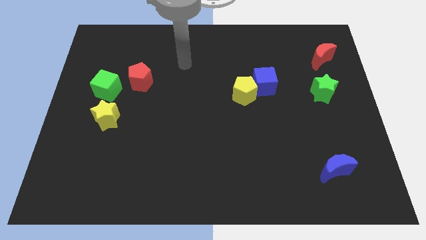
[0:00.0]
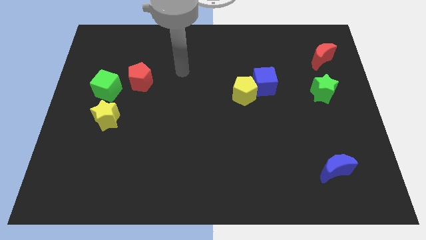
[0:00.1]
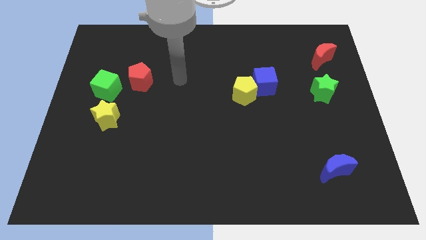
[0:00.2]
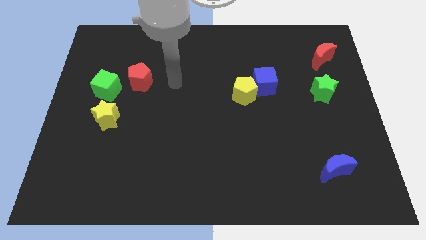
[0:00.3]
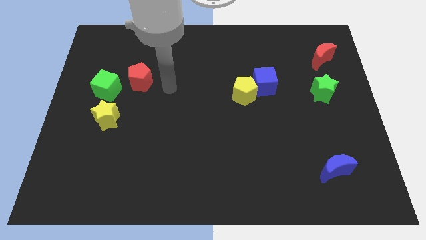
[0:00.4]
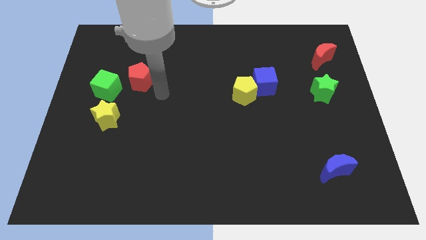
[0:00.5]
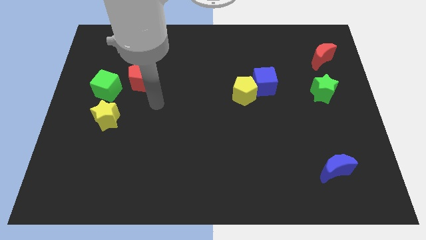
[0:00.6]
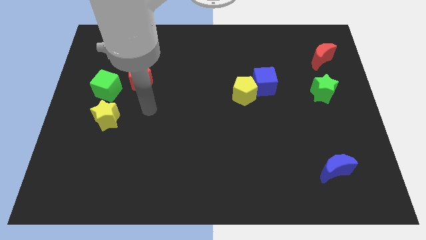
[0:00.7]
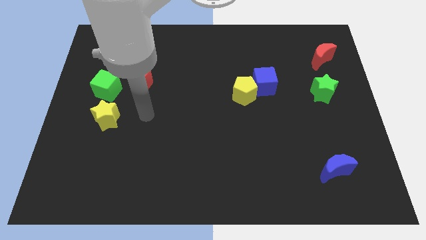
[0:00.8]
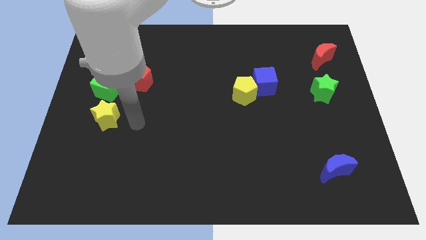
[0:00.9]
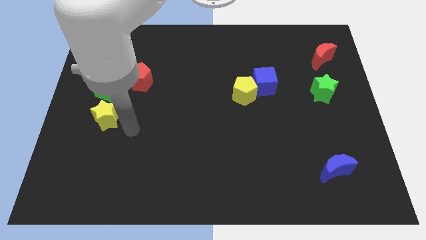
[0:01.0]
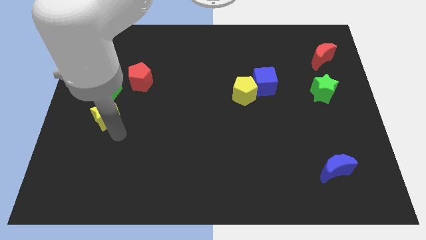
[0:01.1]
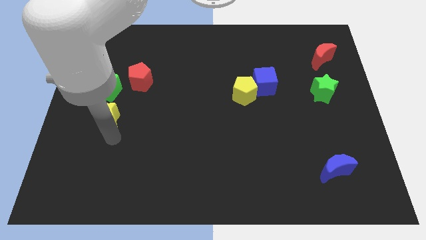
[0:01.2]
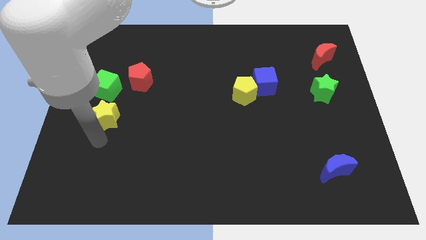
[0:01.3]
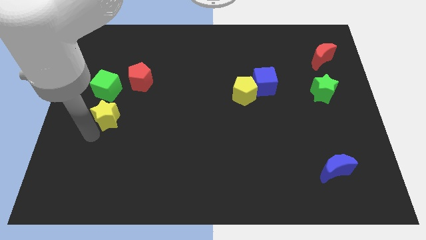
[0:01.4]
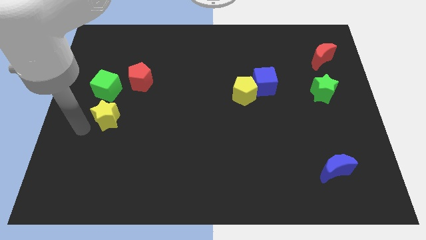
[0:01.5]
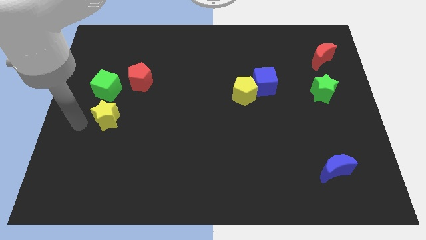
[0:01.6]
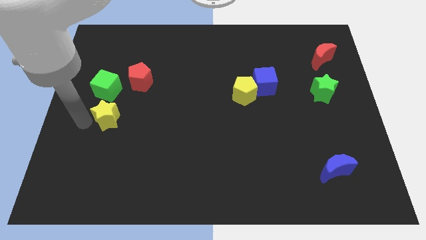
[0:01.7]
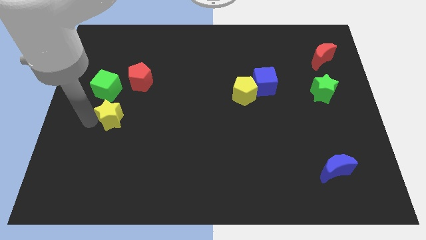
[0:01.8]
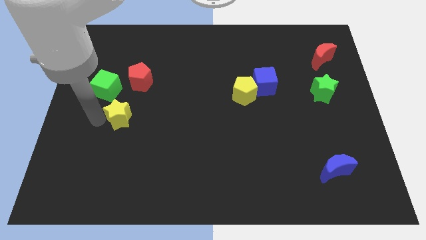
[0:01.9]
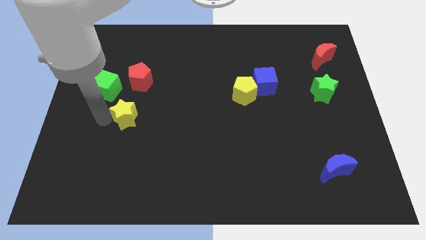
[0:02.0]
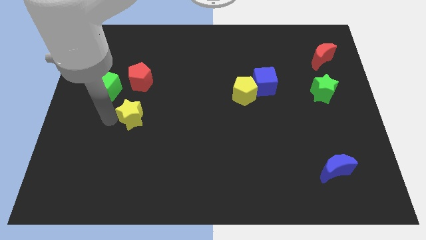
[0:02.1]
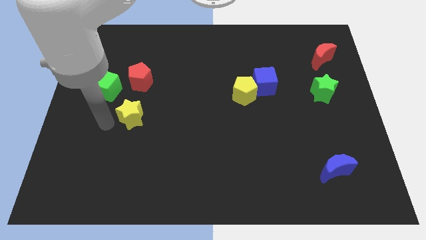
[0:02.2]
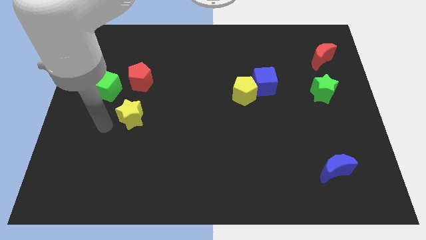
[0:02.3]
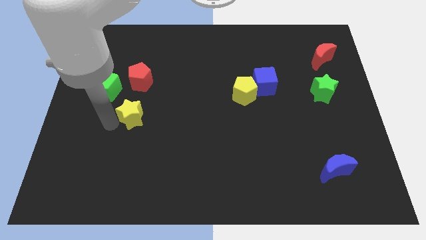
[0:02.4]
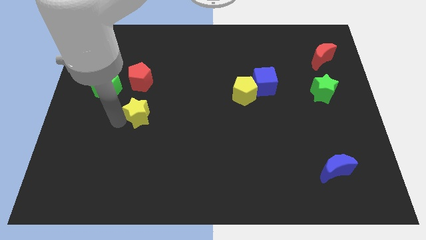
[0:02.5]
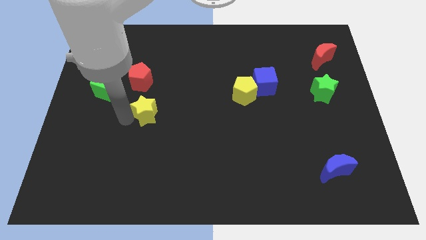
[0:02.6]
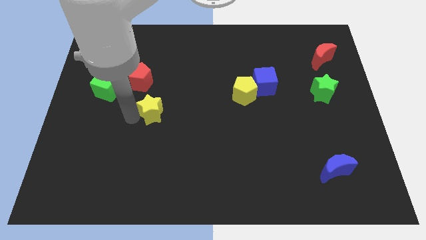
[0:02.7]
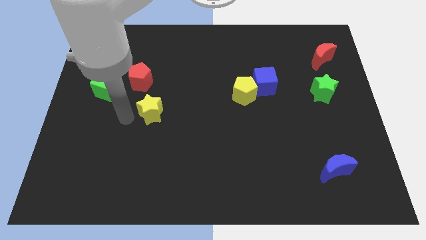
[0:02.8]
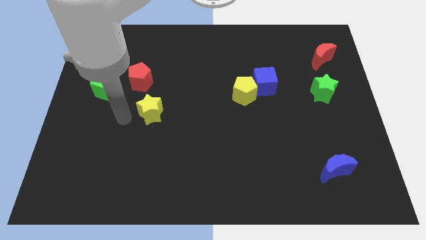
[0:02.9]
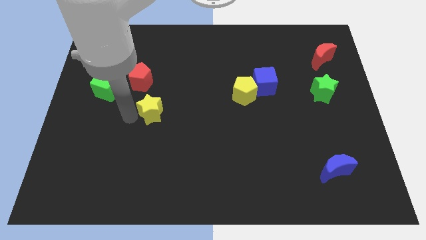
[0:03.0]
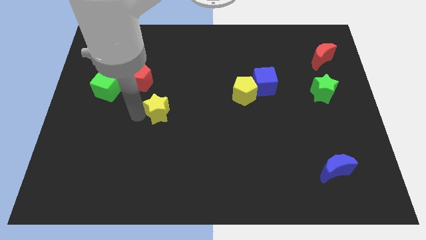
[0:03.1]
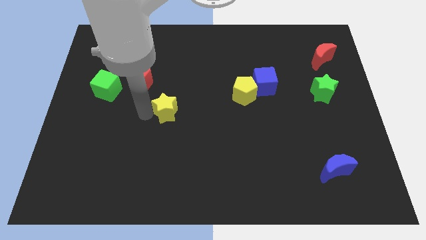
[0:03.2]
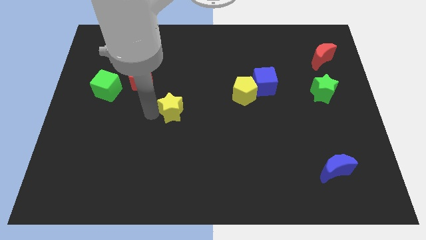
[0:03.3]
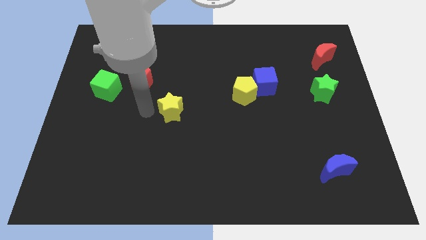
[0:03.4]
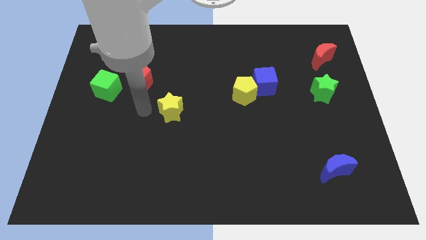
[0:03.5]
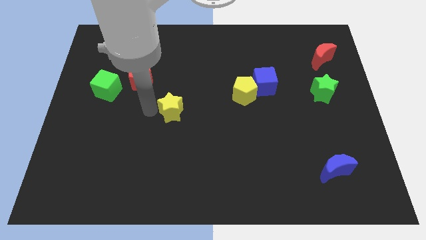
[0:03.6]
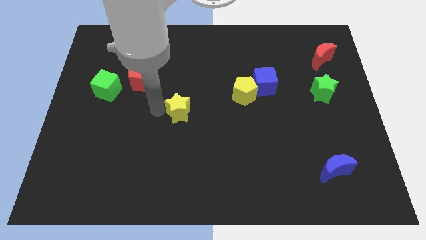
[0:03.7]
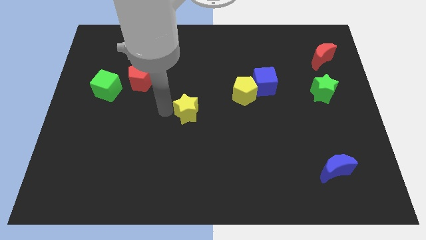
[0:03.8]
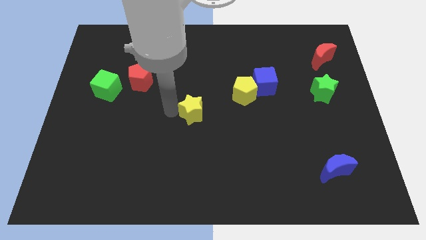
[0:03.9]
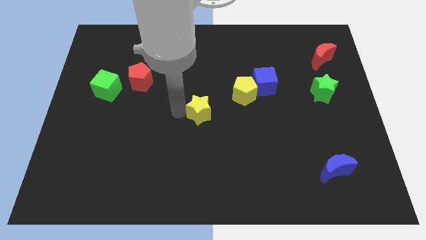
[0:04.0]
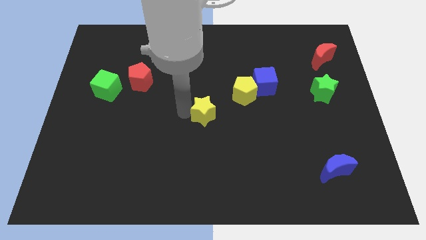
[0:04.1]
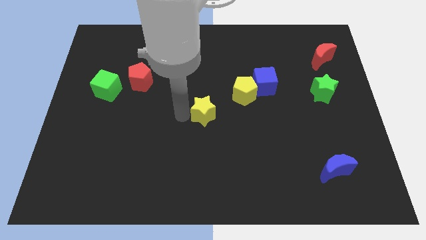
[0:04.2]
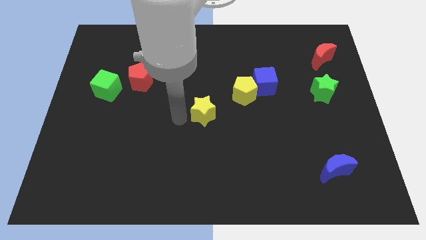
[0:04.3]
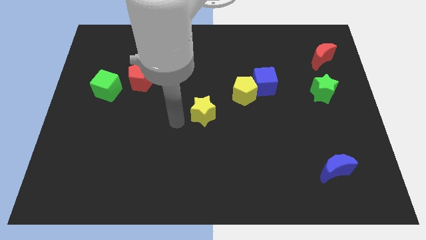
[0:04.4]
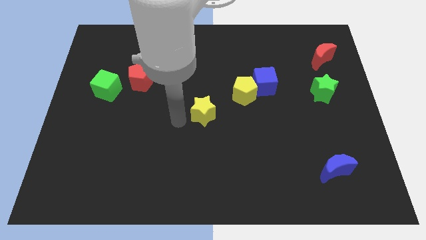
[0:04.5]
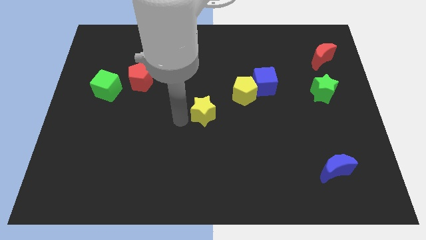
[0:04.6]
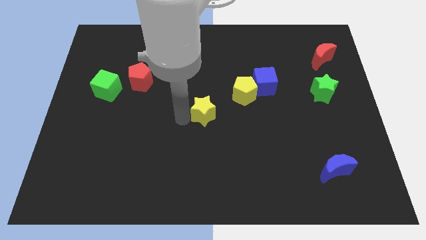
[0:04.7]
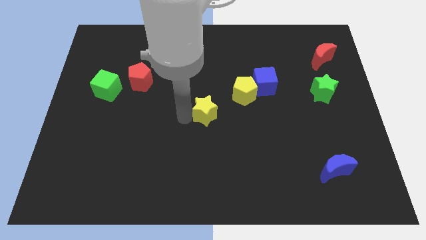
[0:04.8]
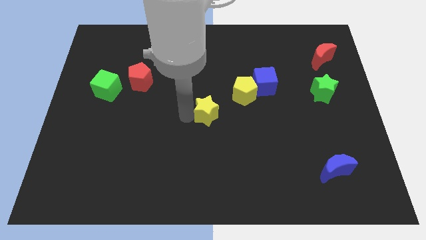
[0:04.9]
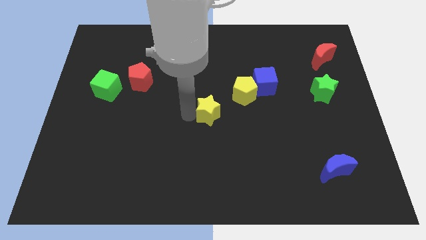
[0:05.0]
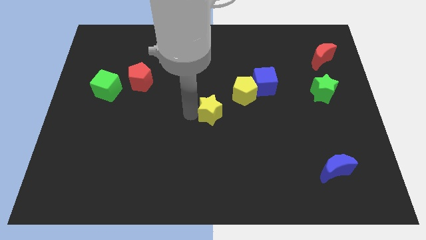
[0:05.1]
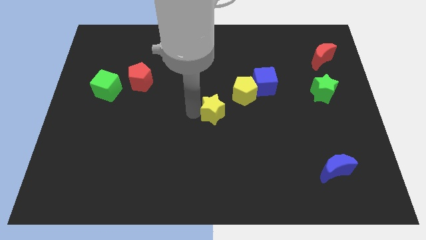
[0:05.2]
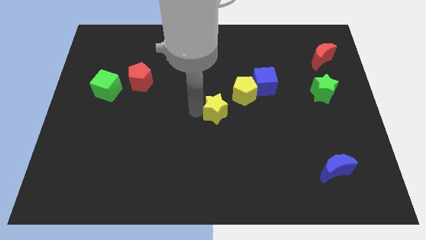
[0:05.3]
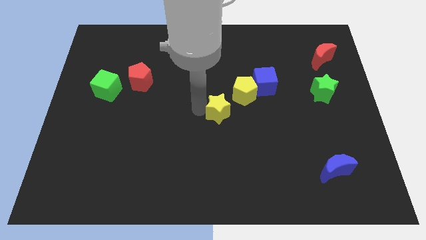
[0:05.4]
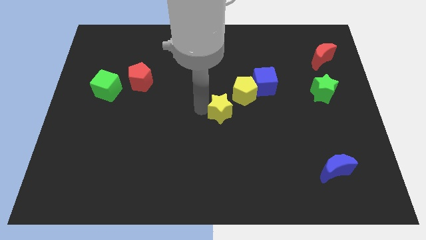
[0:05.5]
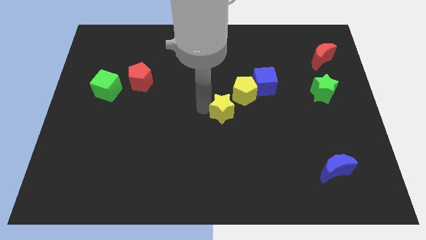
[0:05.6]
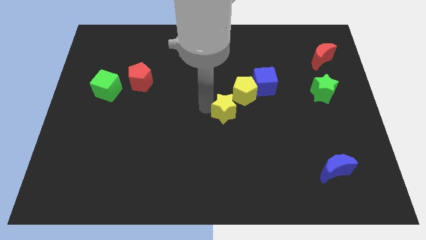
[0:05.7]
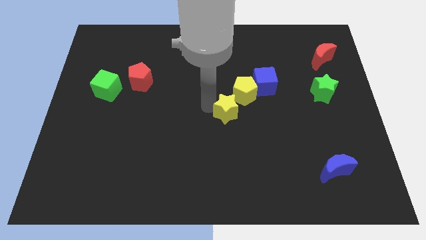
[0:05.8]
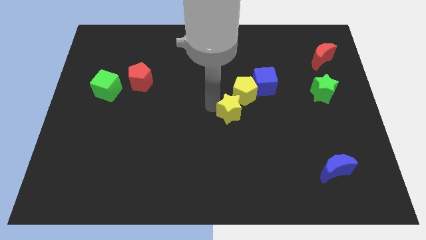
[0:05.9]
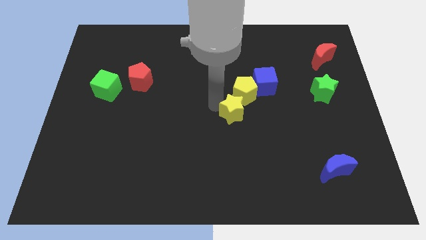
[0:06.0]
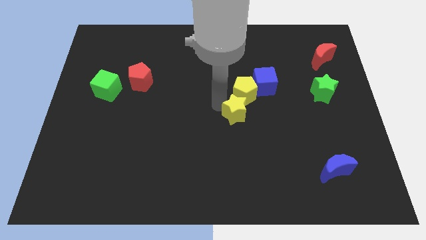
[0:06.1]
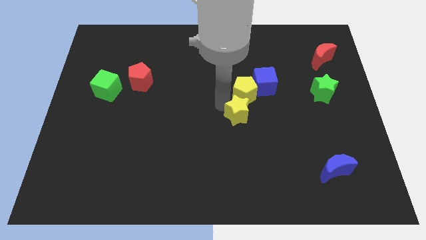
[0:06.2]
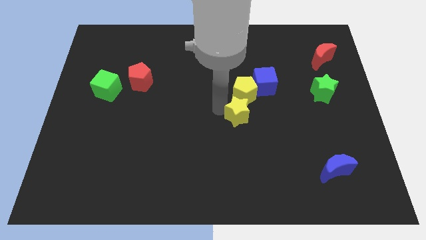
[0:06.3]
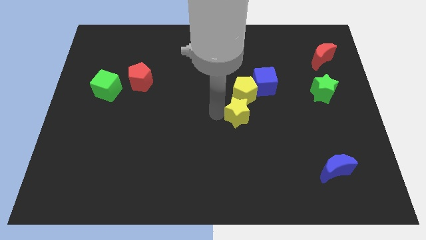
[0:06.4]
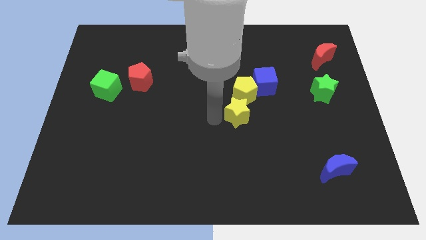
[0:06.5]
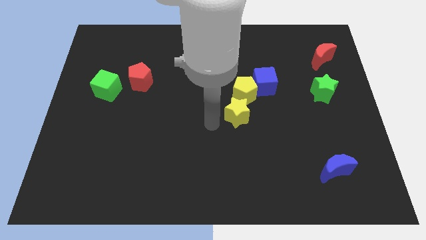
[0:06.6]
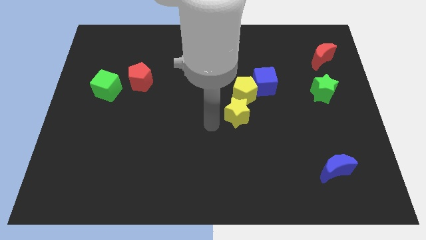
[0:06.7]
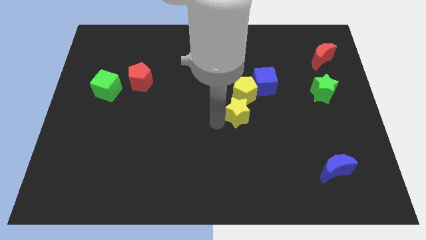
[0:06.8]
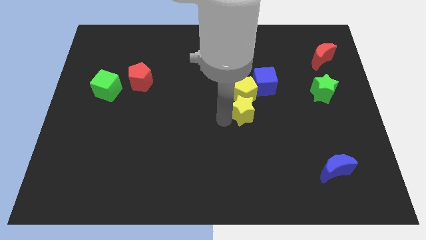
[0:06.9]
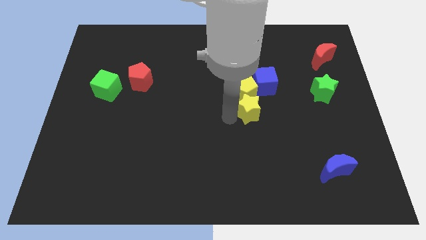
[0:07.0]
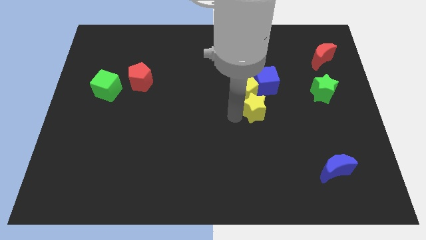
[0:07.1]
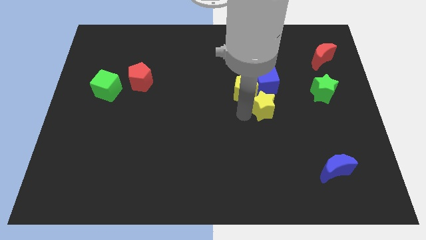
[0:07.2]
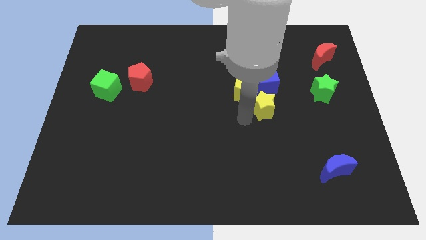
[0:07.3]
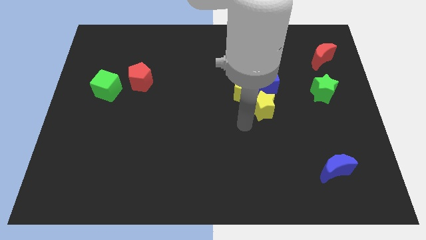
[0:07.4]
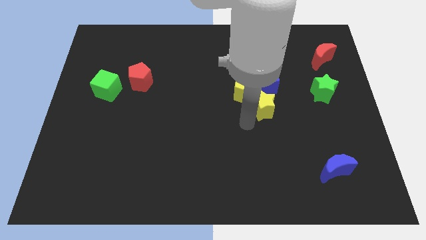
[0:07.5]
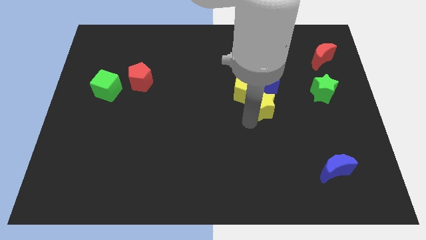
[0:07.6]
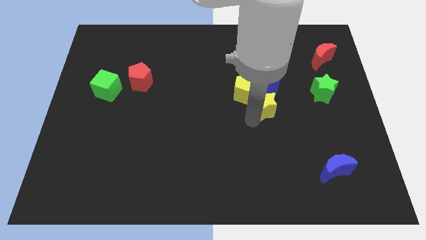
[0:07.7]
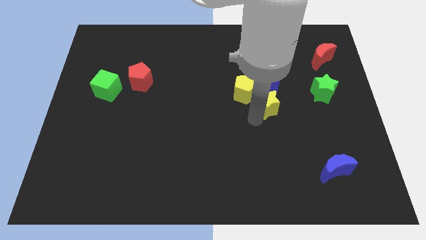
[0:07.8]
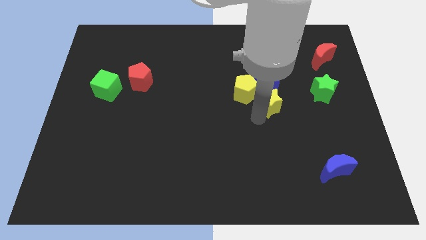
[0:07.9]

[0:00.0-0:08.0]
move the yellow star left of the green star
